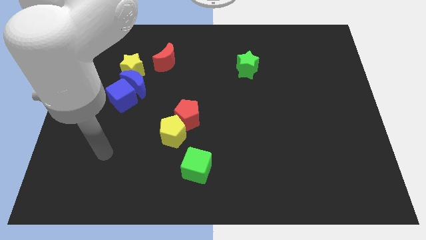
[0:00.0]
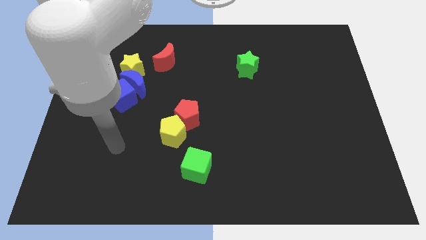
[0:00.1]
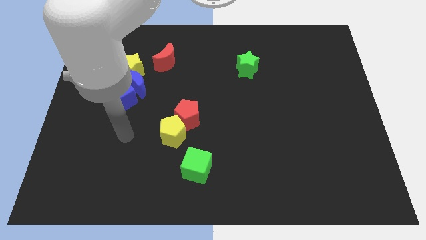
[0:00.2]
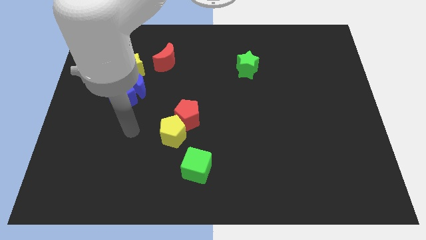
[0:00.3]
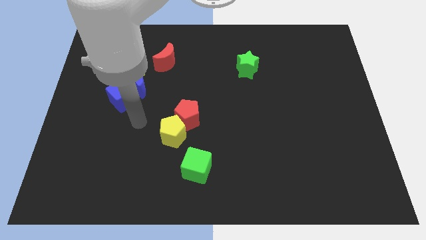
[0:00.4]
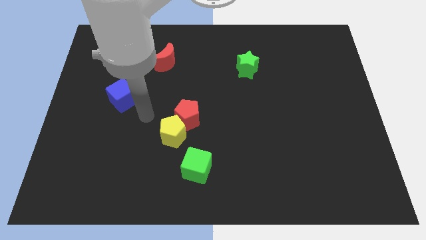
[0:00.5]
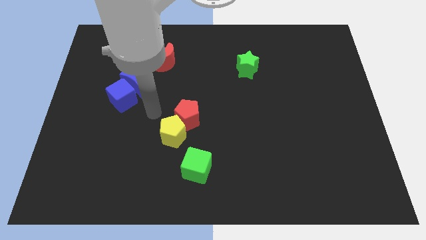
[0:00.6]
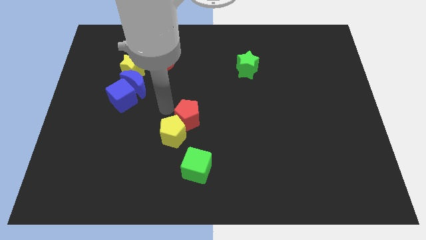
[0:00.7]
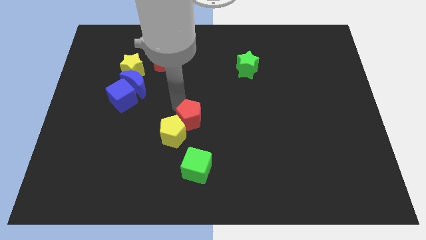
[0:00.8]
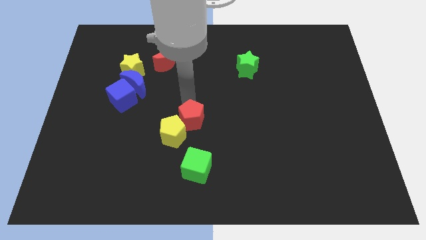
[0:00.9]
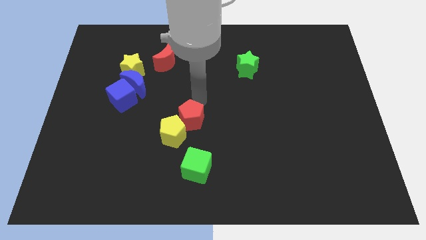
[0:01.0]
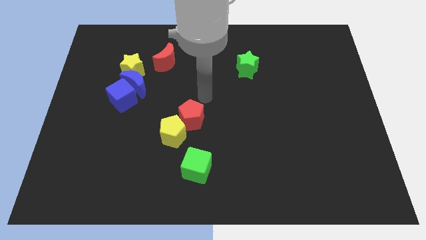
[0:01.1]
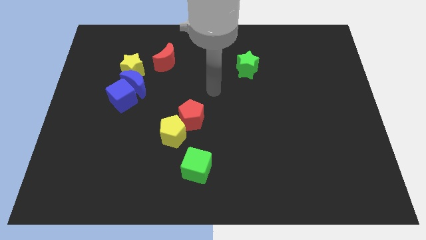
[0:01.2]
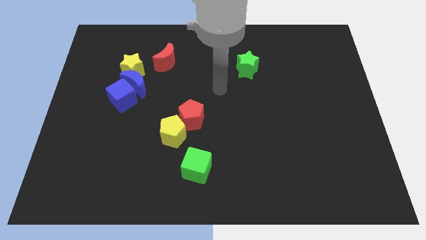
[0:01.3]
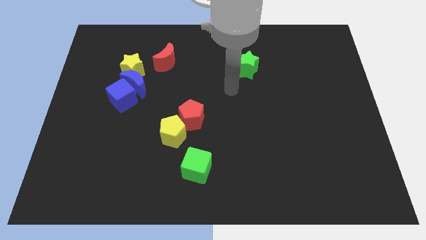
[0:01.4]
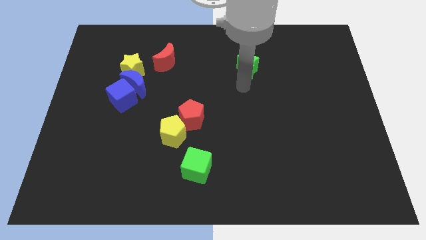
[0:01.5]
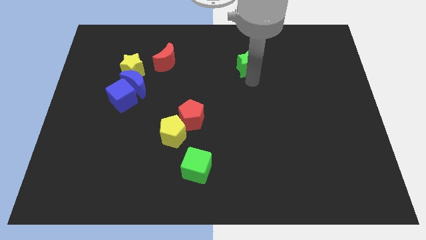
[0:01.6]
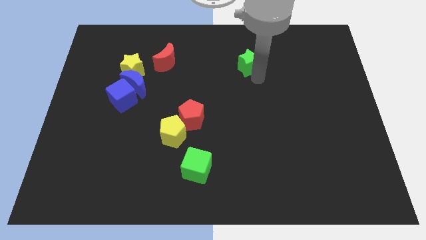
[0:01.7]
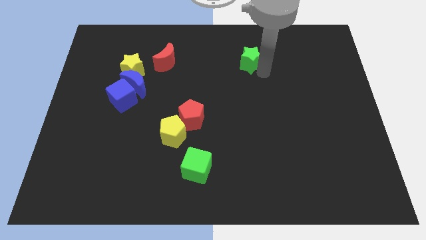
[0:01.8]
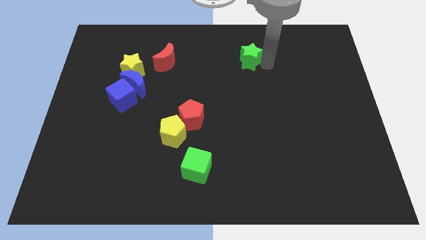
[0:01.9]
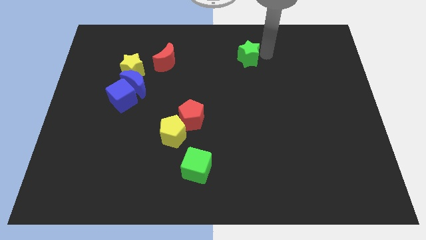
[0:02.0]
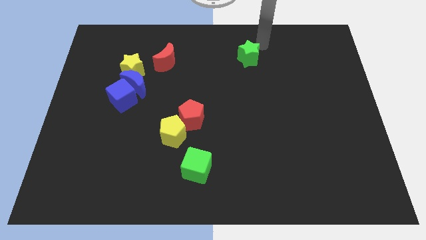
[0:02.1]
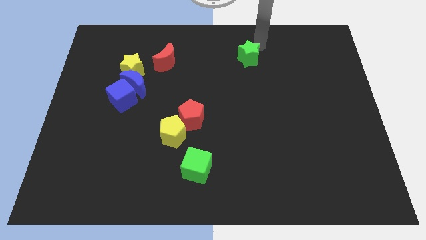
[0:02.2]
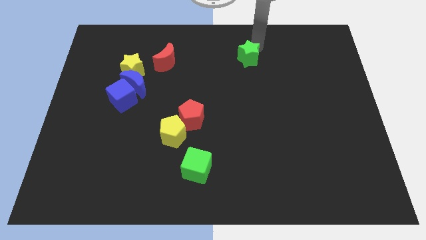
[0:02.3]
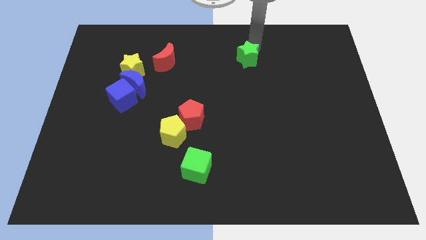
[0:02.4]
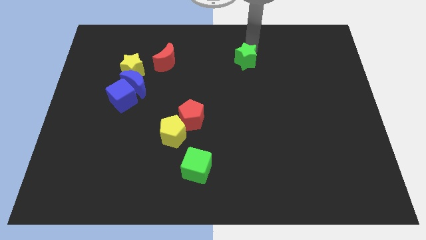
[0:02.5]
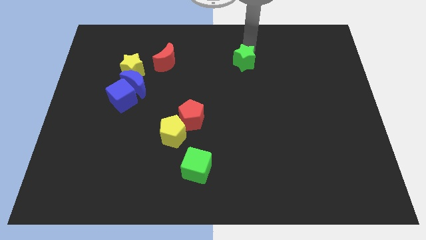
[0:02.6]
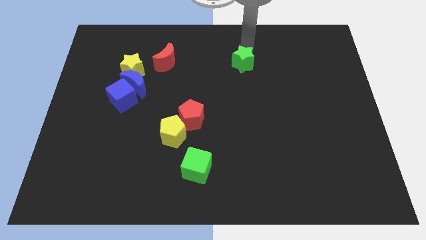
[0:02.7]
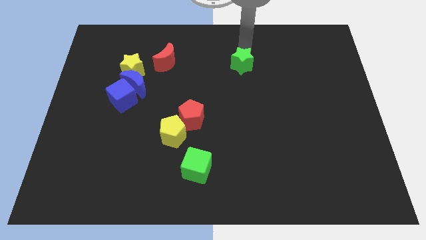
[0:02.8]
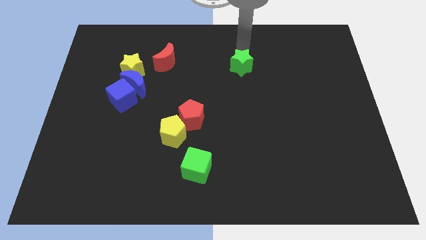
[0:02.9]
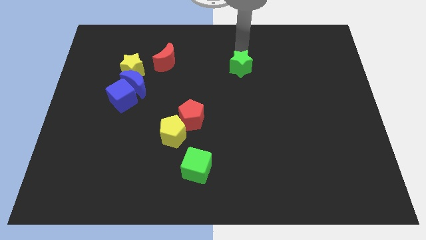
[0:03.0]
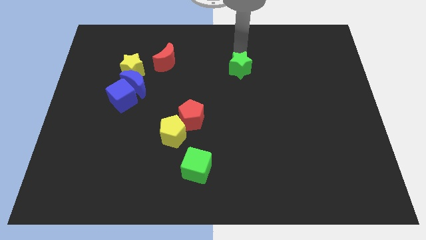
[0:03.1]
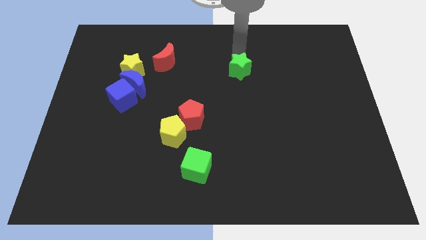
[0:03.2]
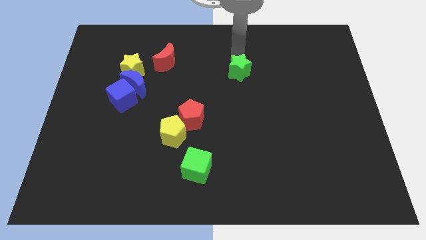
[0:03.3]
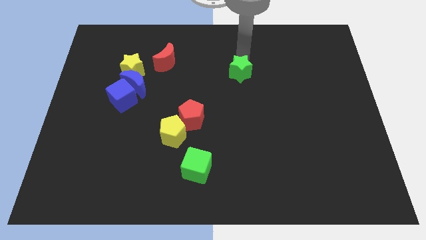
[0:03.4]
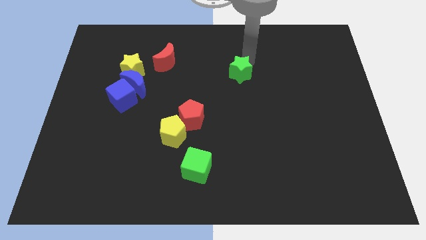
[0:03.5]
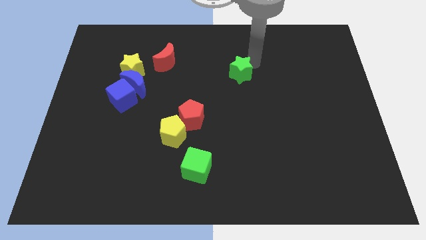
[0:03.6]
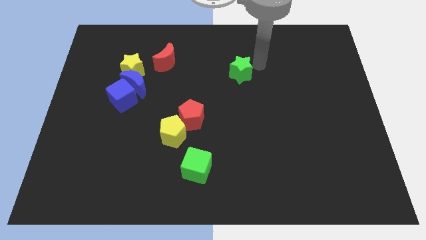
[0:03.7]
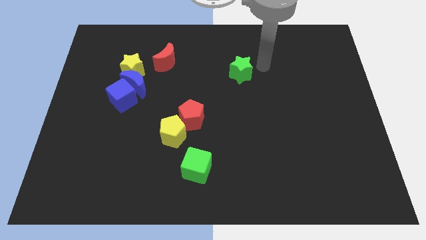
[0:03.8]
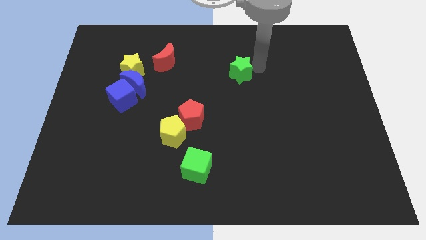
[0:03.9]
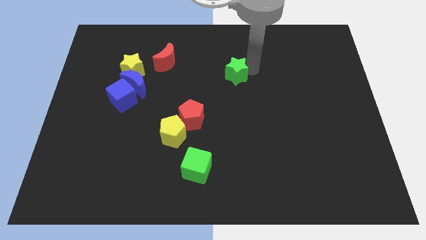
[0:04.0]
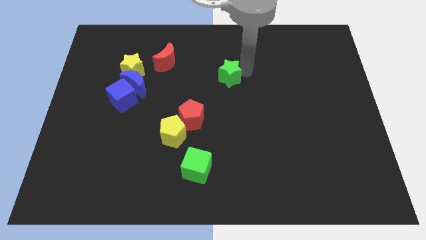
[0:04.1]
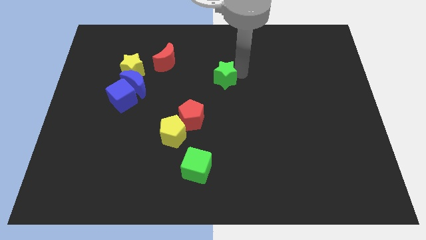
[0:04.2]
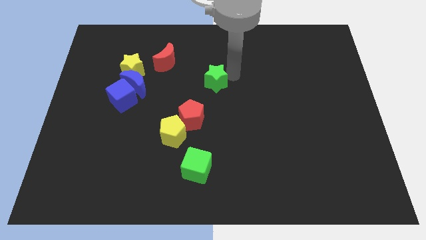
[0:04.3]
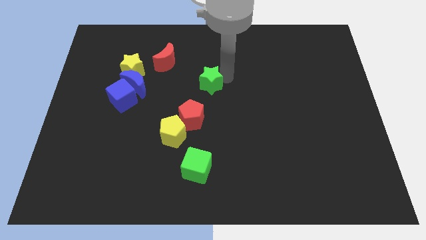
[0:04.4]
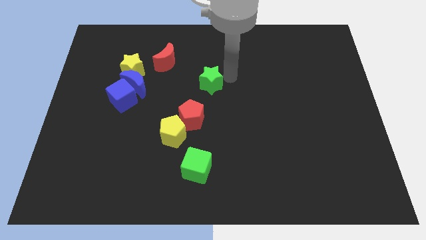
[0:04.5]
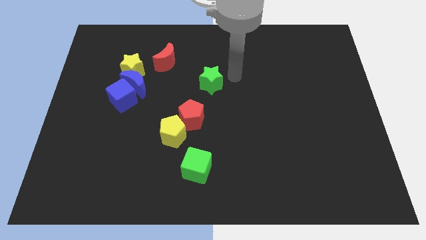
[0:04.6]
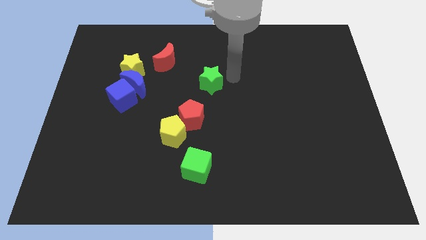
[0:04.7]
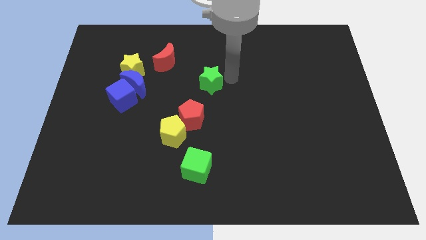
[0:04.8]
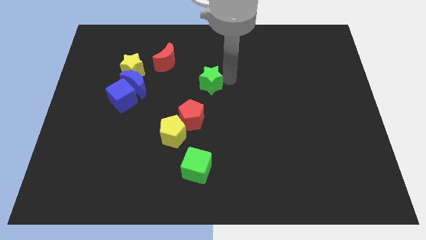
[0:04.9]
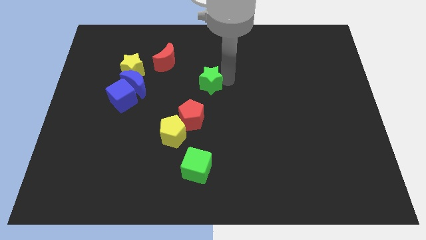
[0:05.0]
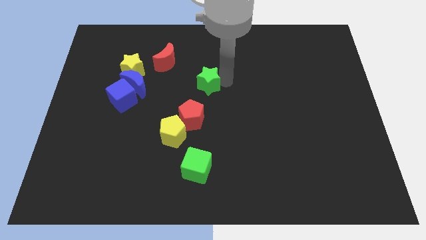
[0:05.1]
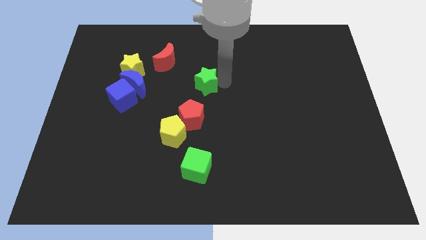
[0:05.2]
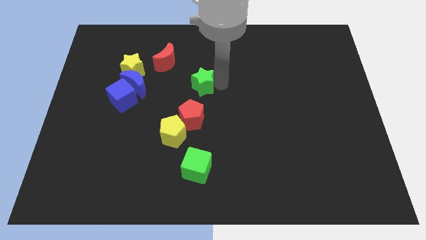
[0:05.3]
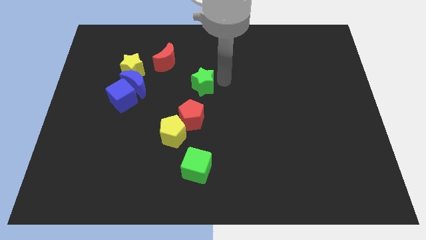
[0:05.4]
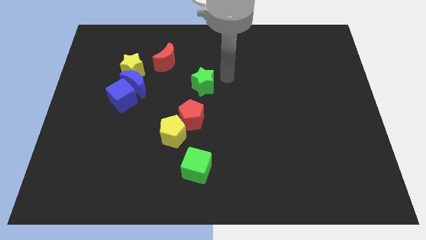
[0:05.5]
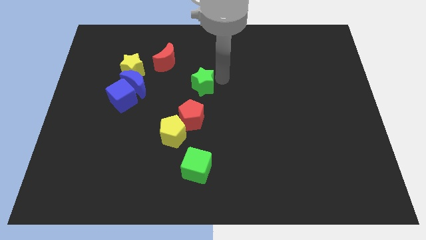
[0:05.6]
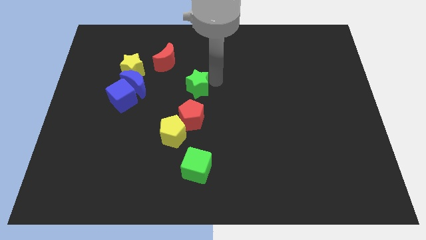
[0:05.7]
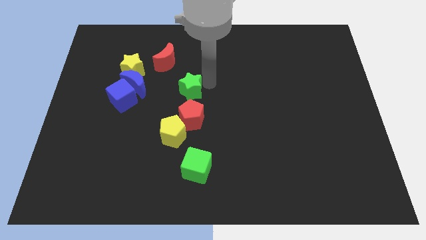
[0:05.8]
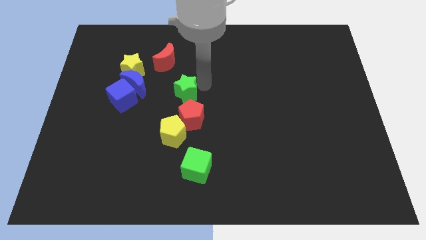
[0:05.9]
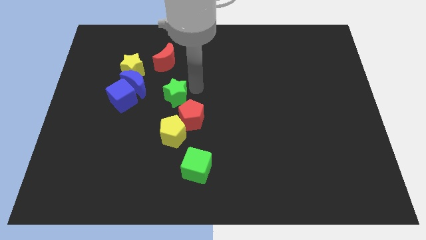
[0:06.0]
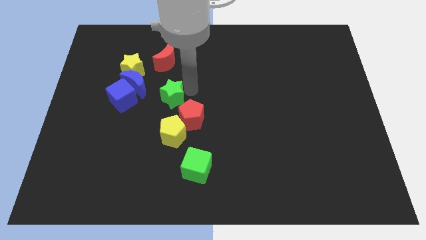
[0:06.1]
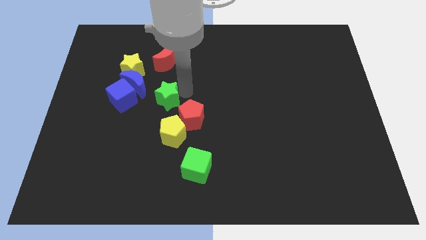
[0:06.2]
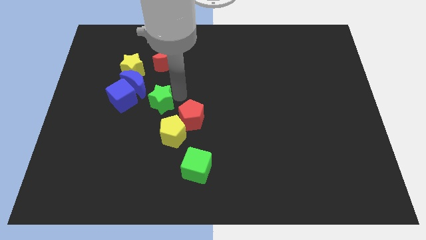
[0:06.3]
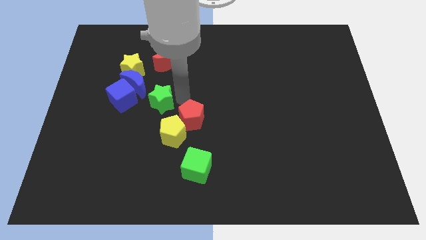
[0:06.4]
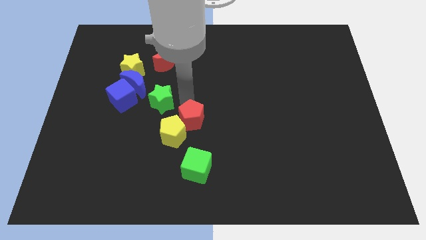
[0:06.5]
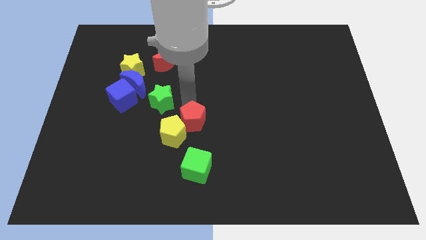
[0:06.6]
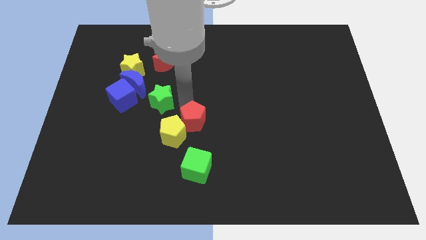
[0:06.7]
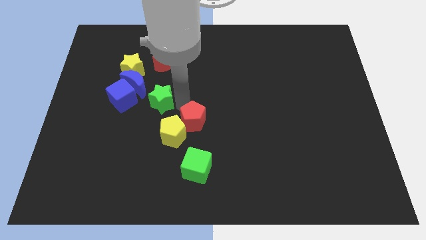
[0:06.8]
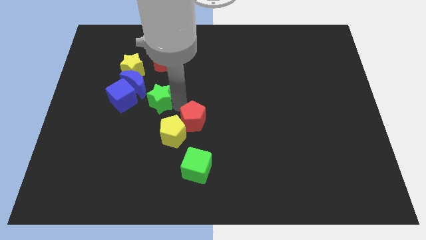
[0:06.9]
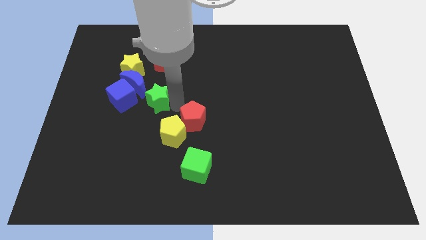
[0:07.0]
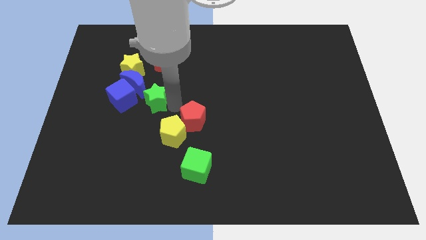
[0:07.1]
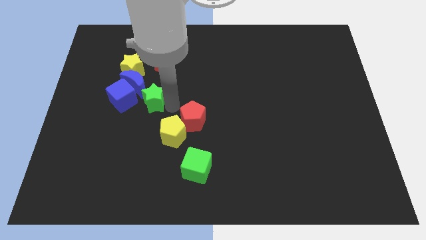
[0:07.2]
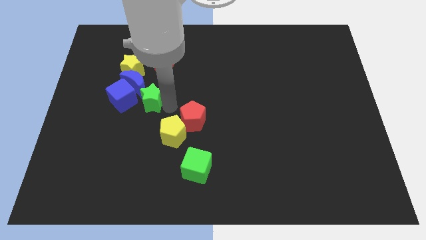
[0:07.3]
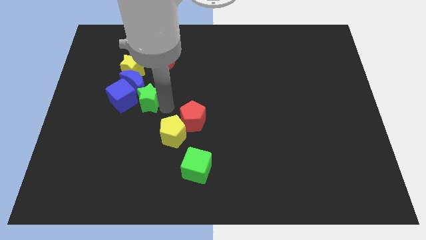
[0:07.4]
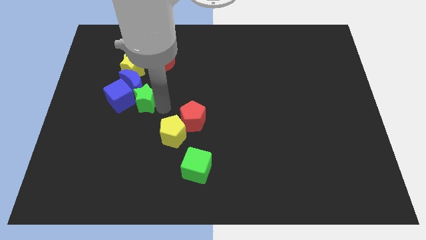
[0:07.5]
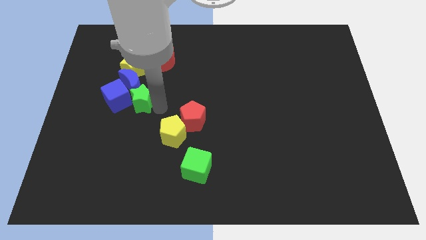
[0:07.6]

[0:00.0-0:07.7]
put the green star close to the blue cube

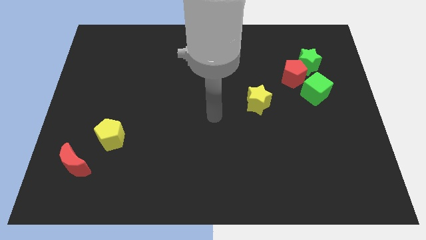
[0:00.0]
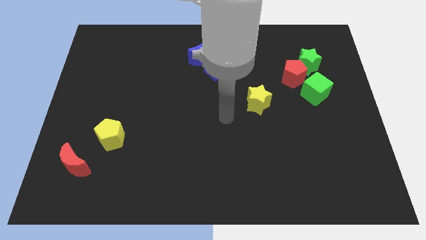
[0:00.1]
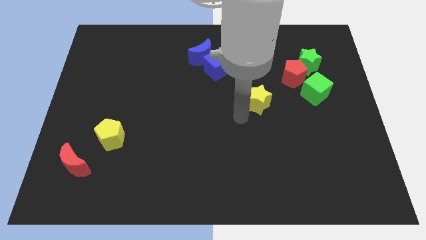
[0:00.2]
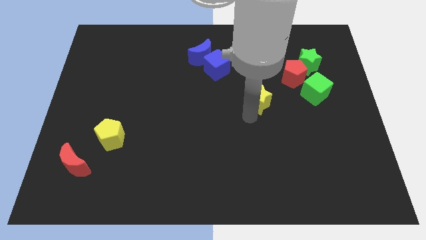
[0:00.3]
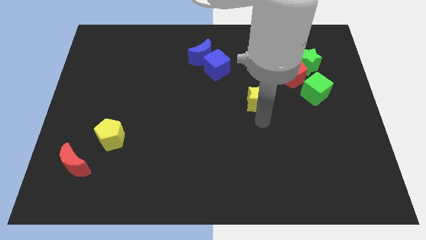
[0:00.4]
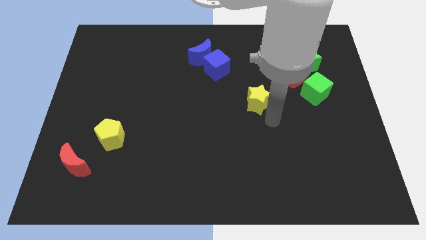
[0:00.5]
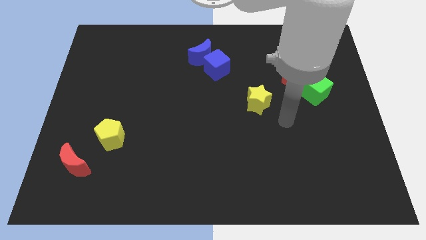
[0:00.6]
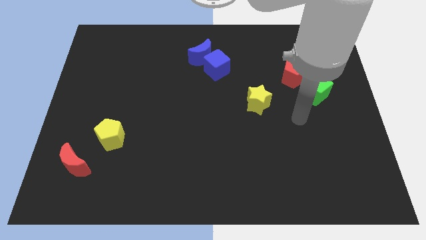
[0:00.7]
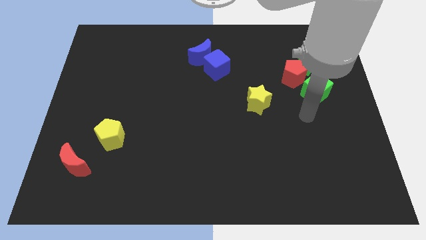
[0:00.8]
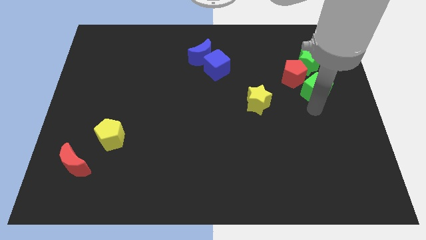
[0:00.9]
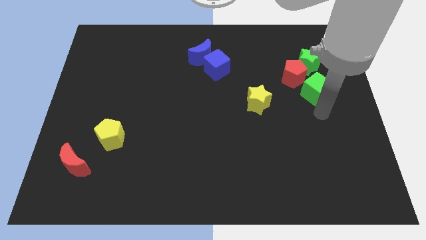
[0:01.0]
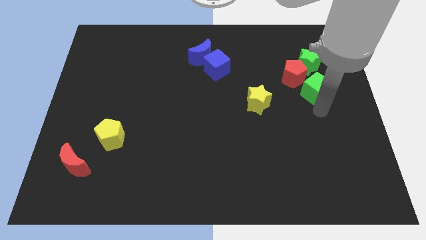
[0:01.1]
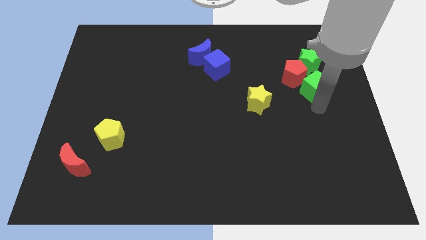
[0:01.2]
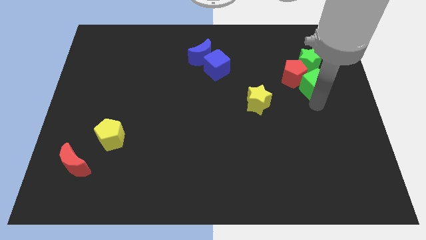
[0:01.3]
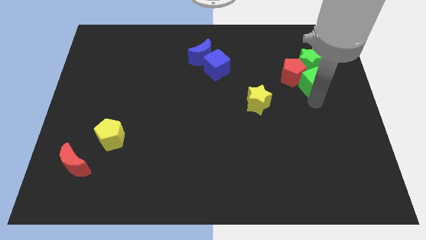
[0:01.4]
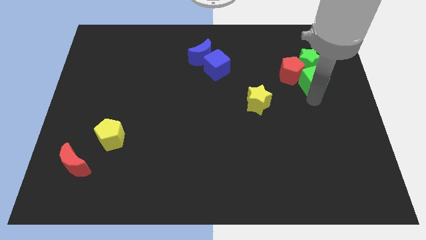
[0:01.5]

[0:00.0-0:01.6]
move the green cube close to the green star
